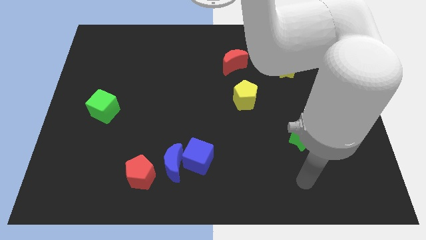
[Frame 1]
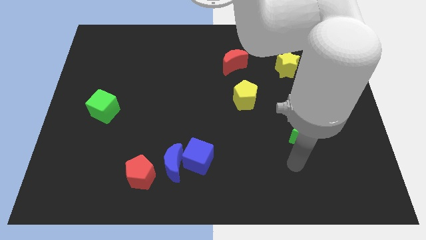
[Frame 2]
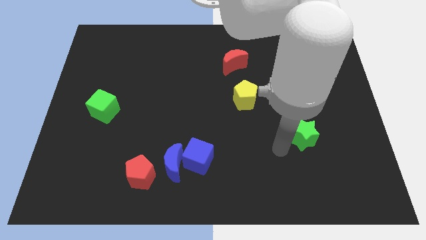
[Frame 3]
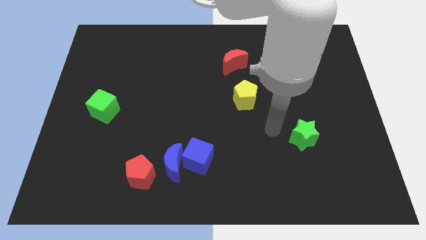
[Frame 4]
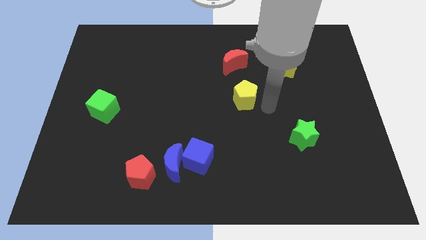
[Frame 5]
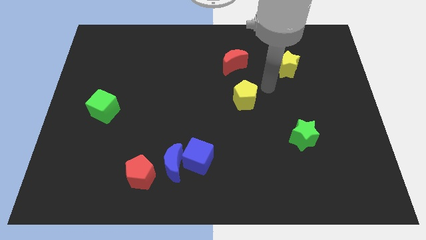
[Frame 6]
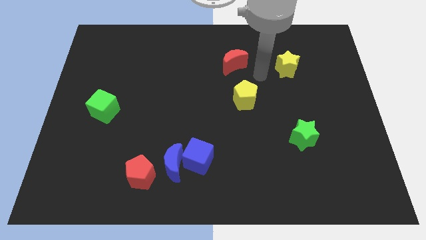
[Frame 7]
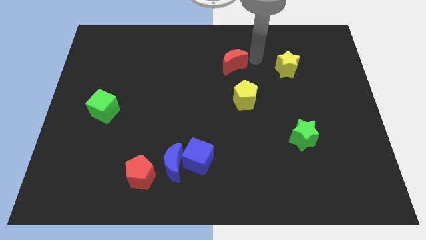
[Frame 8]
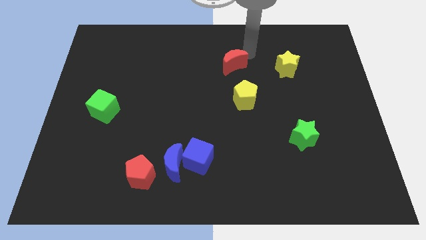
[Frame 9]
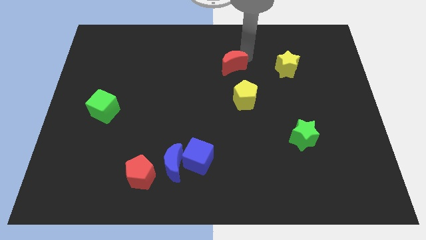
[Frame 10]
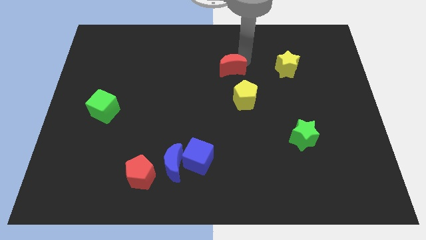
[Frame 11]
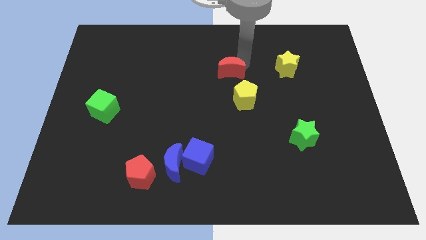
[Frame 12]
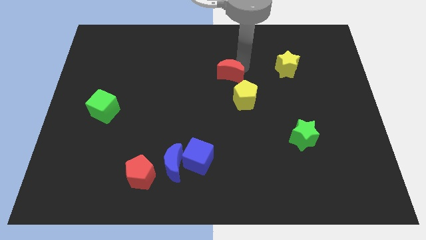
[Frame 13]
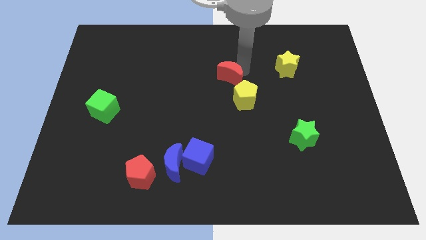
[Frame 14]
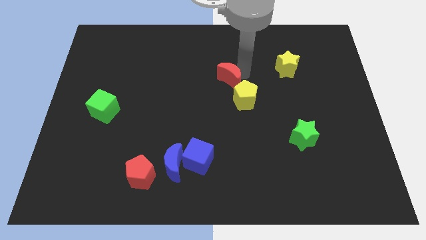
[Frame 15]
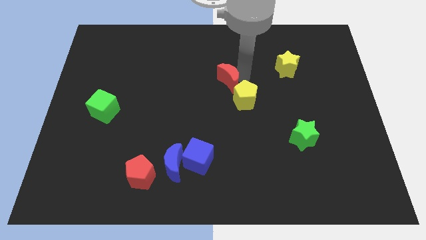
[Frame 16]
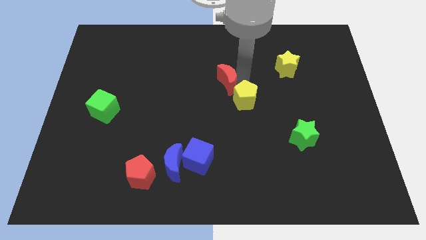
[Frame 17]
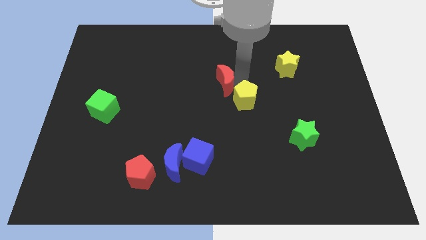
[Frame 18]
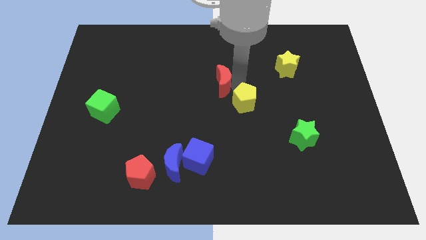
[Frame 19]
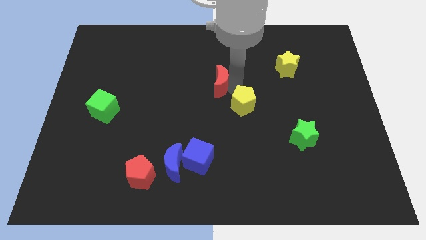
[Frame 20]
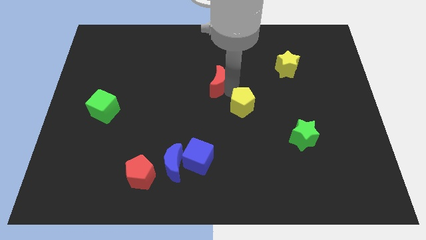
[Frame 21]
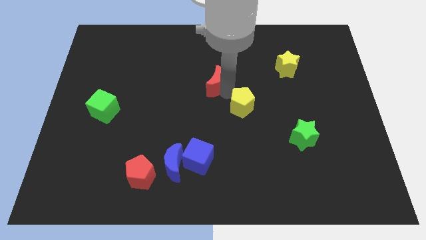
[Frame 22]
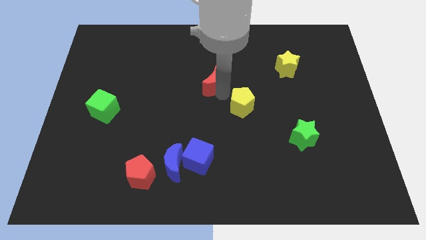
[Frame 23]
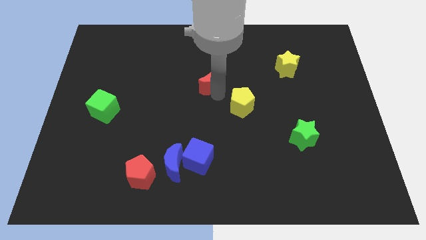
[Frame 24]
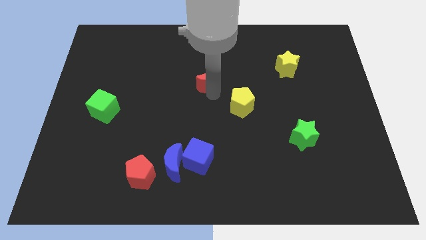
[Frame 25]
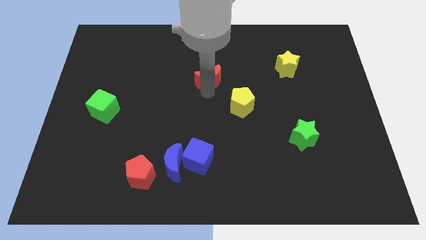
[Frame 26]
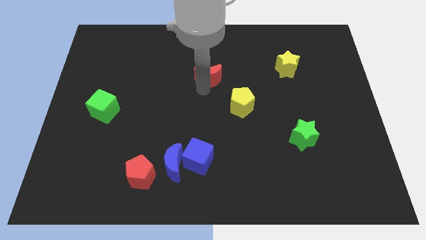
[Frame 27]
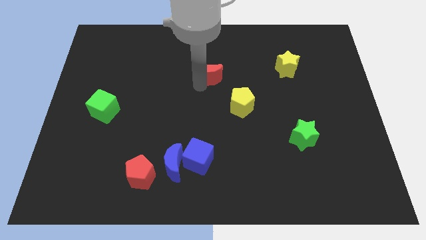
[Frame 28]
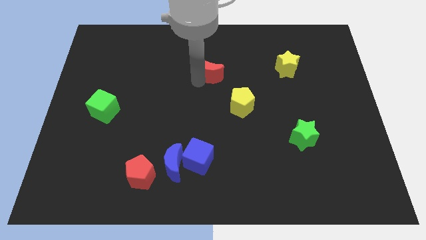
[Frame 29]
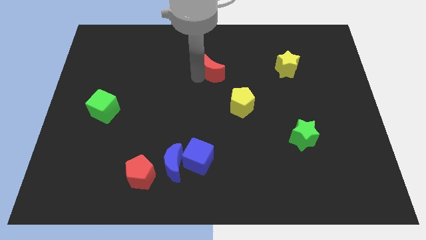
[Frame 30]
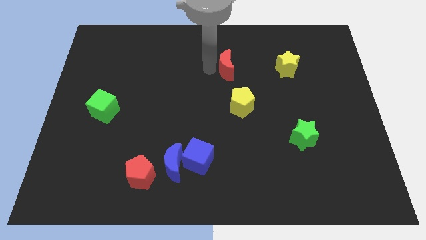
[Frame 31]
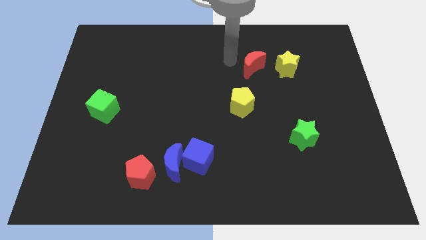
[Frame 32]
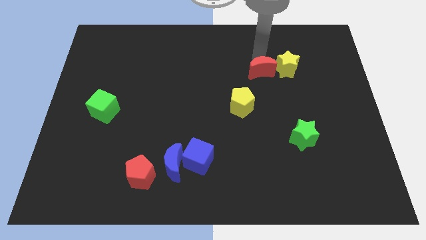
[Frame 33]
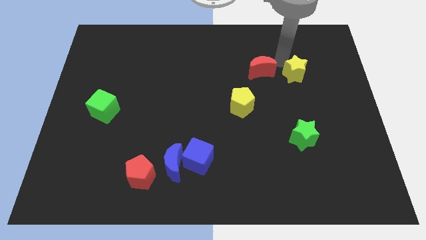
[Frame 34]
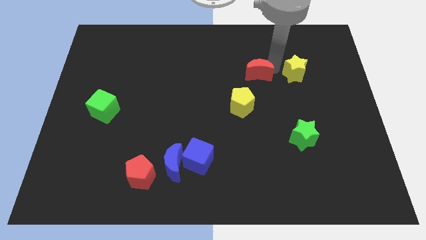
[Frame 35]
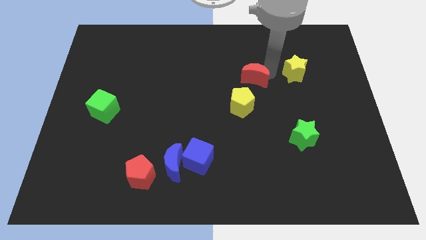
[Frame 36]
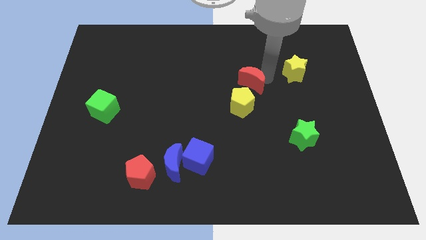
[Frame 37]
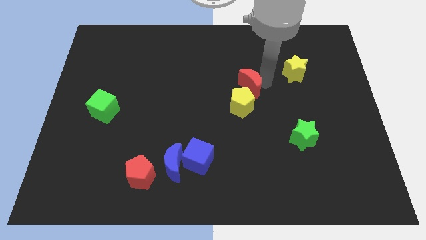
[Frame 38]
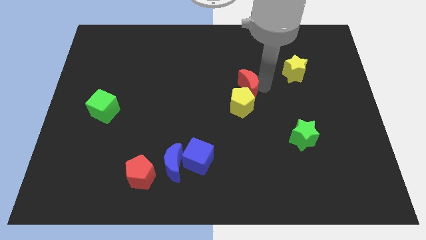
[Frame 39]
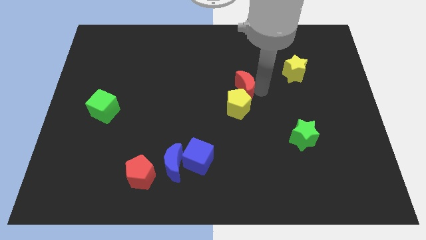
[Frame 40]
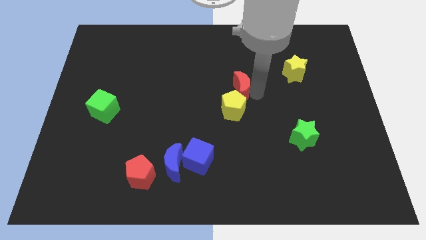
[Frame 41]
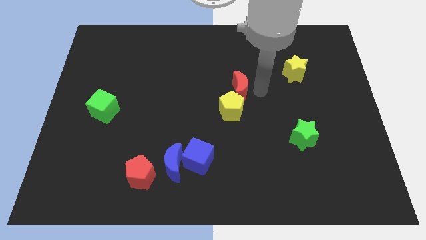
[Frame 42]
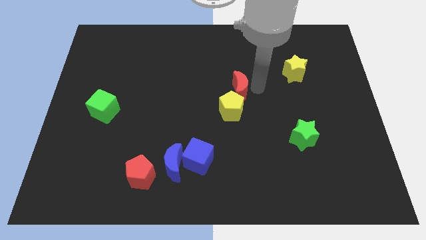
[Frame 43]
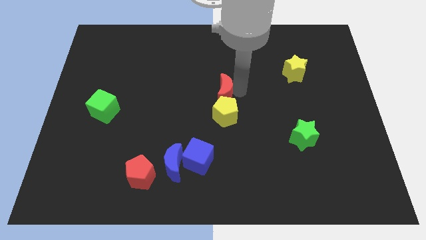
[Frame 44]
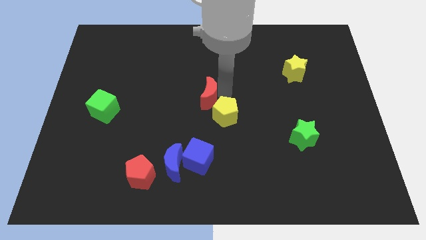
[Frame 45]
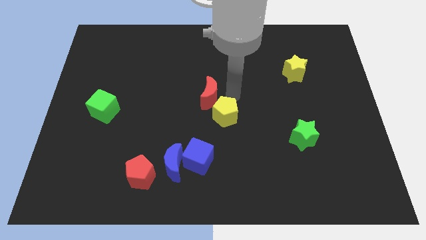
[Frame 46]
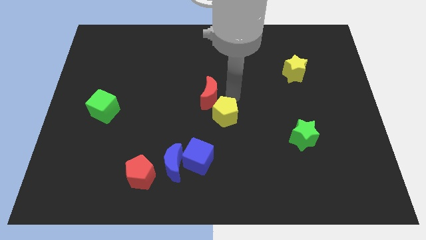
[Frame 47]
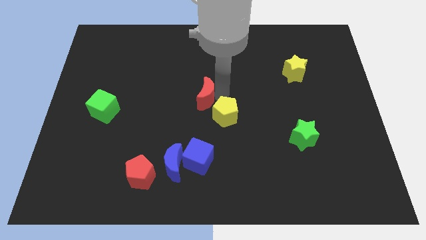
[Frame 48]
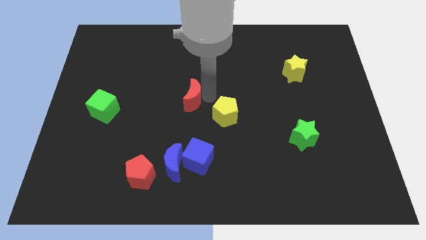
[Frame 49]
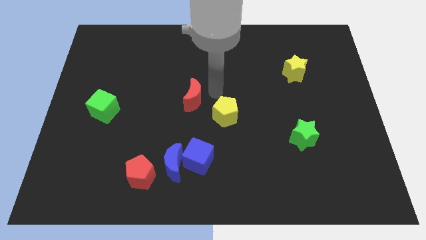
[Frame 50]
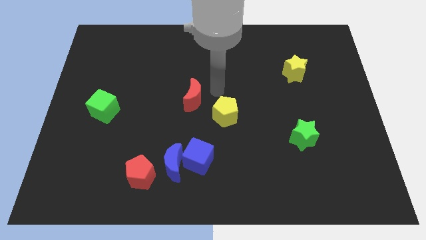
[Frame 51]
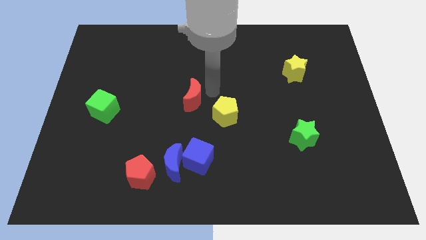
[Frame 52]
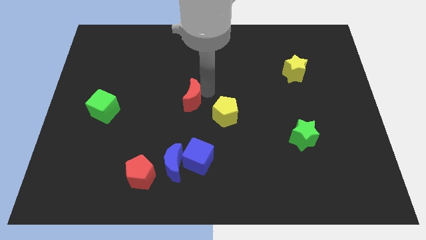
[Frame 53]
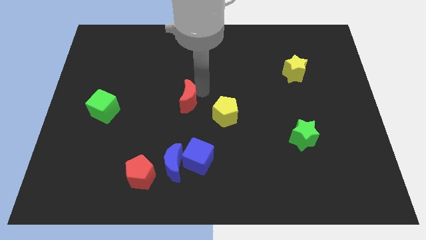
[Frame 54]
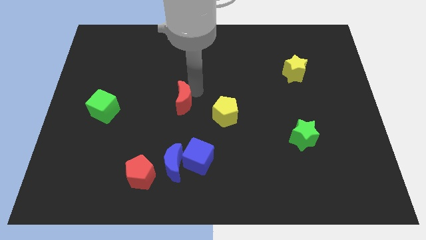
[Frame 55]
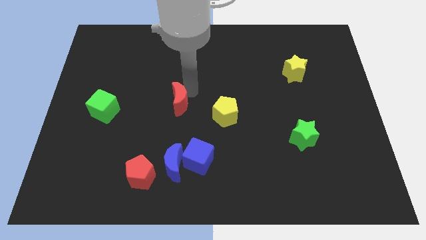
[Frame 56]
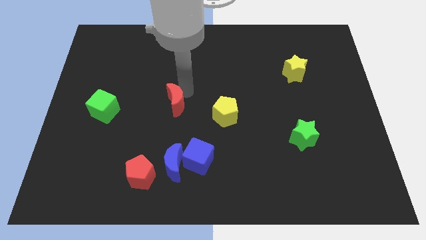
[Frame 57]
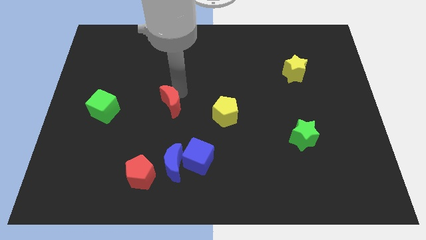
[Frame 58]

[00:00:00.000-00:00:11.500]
push the red moon downwards and left

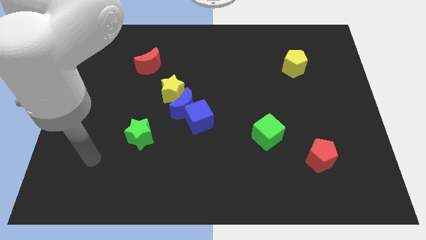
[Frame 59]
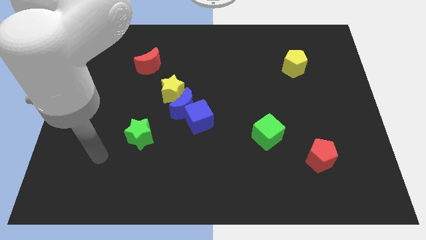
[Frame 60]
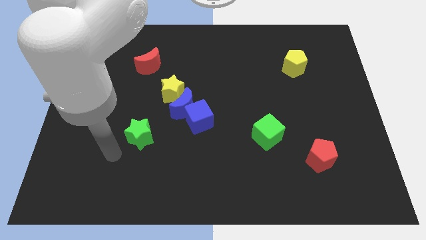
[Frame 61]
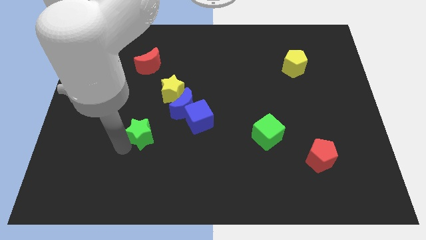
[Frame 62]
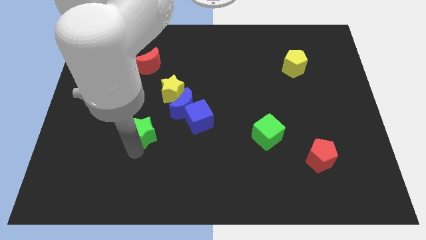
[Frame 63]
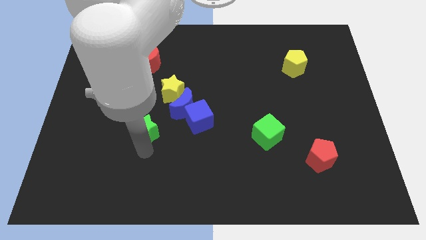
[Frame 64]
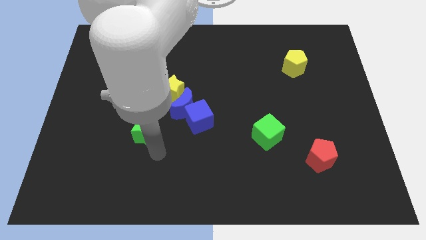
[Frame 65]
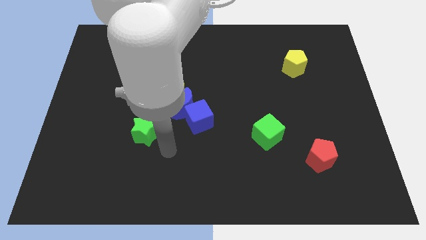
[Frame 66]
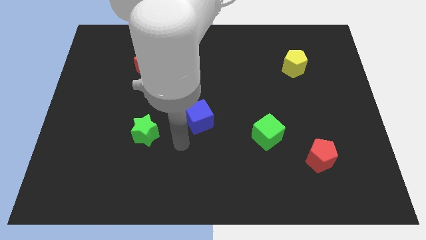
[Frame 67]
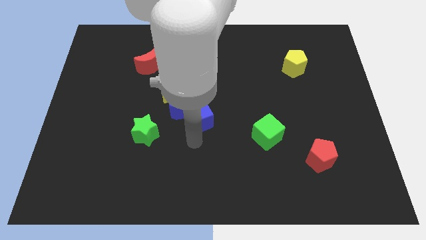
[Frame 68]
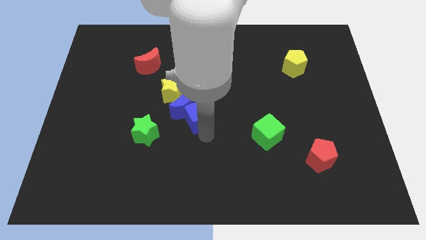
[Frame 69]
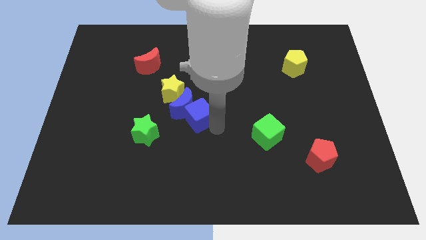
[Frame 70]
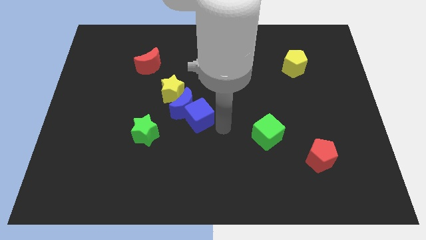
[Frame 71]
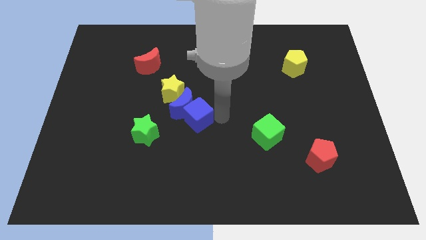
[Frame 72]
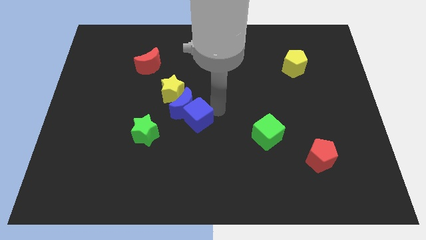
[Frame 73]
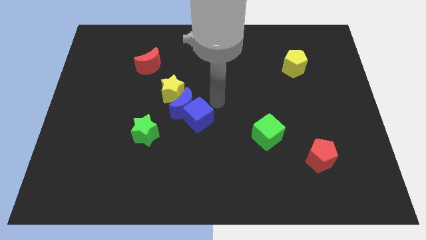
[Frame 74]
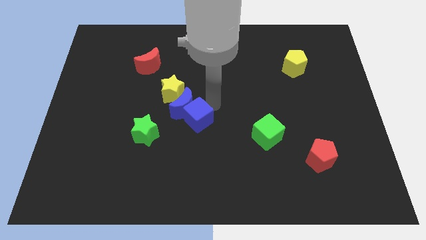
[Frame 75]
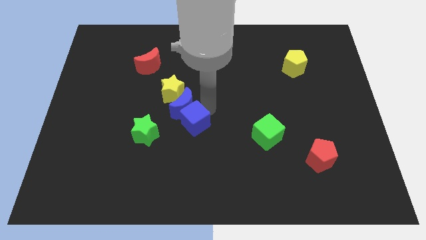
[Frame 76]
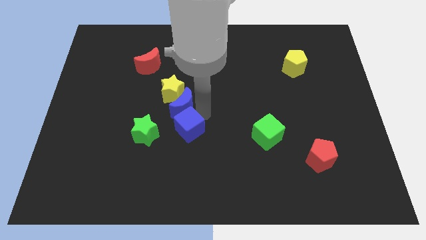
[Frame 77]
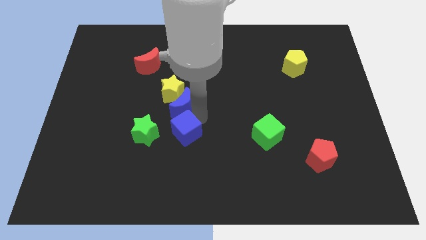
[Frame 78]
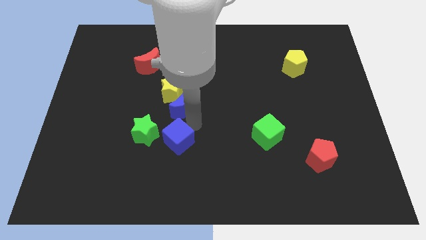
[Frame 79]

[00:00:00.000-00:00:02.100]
move the blue cube diagonally downwards and to the left somewhat
